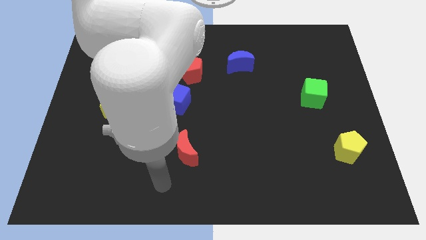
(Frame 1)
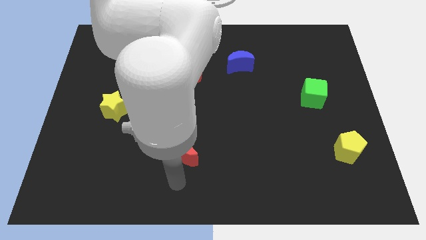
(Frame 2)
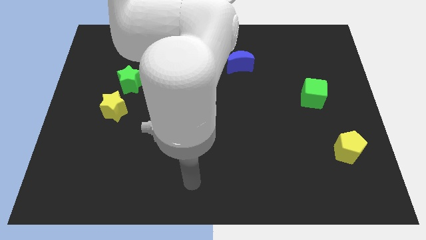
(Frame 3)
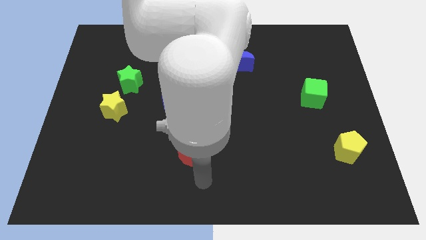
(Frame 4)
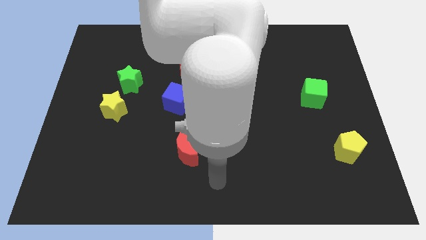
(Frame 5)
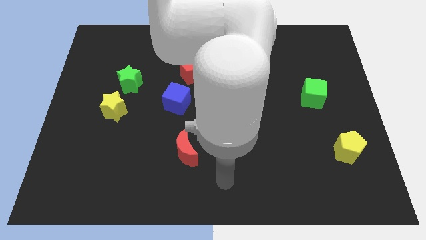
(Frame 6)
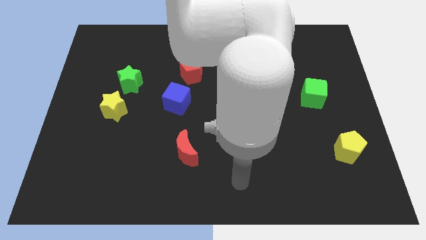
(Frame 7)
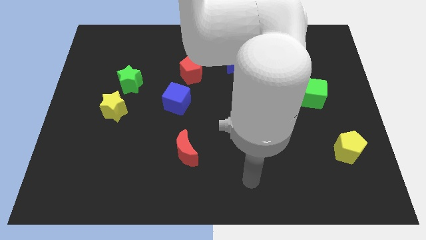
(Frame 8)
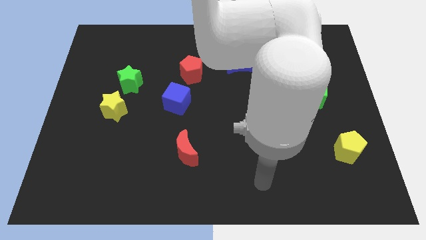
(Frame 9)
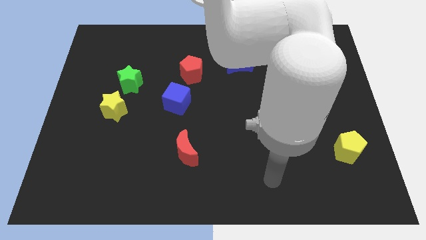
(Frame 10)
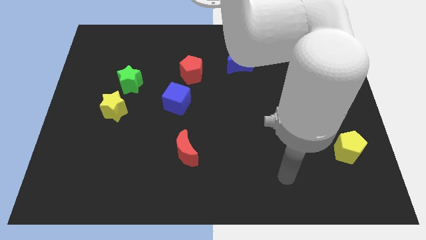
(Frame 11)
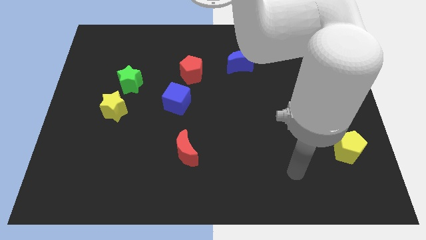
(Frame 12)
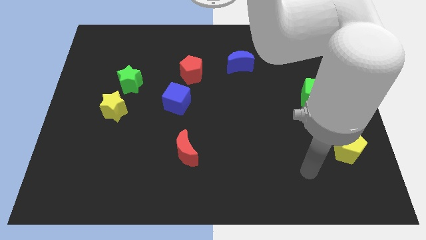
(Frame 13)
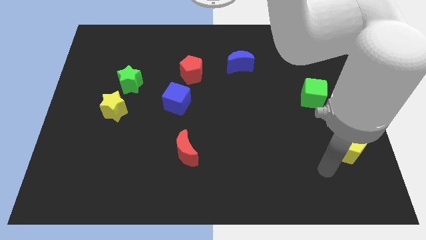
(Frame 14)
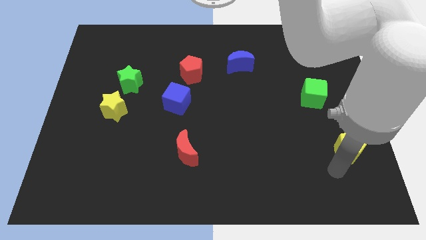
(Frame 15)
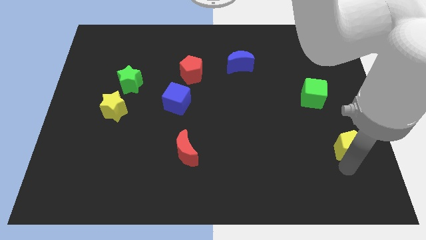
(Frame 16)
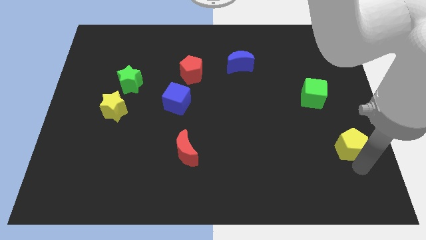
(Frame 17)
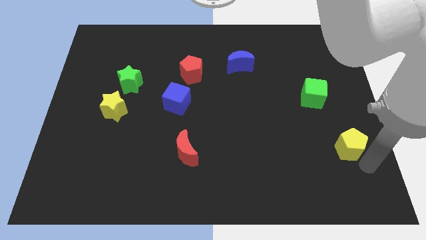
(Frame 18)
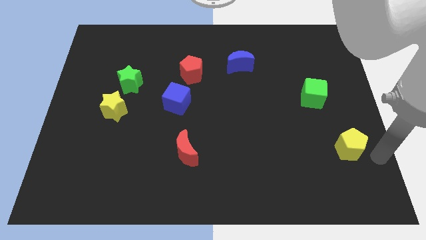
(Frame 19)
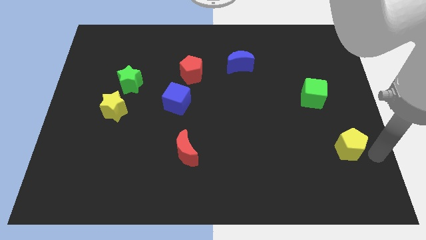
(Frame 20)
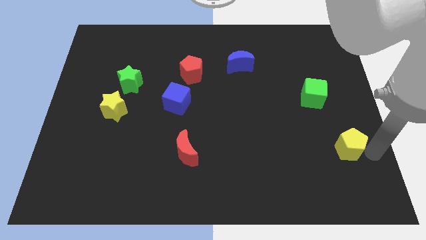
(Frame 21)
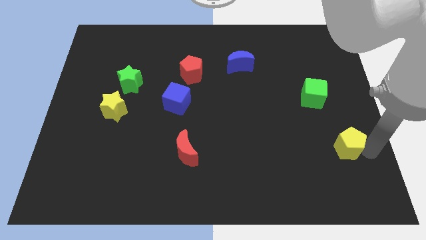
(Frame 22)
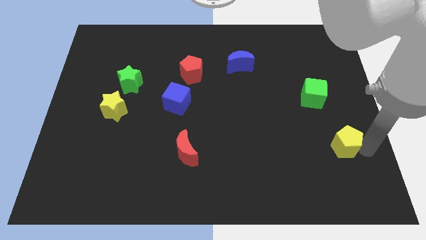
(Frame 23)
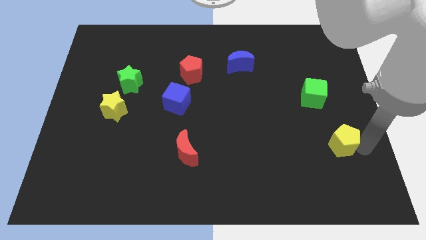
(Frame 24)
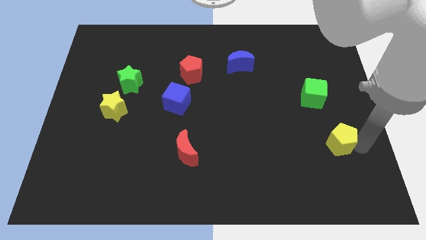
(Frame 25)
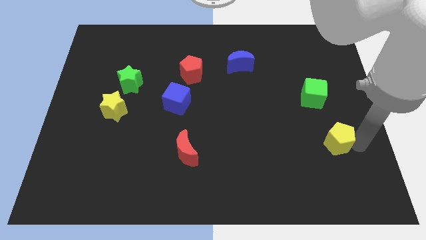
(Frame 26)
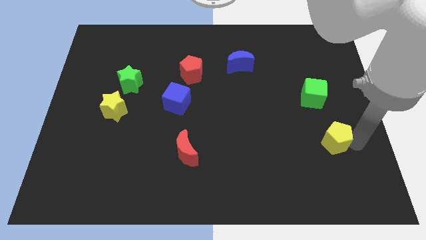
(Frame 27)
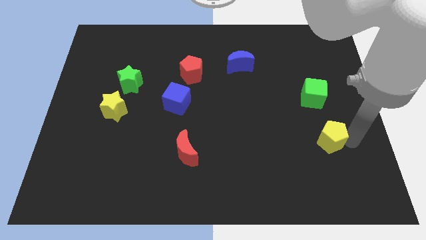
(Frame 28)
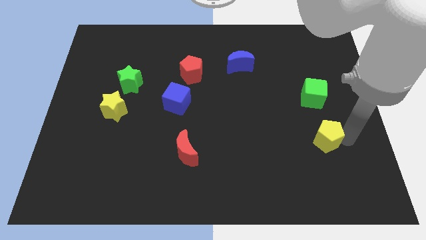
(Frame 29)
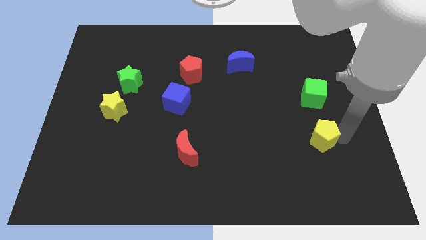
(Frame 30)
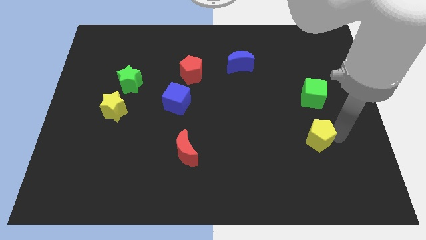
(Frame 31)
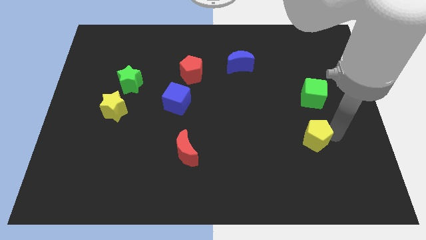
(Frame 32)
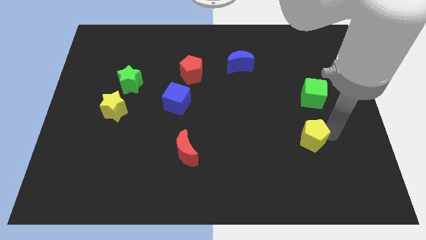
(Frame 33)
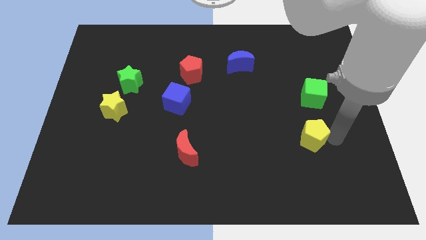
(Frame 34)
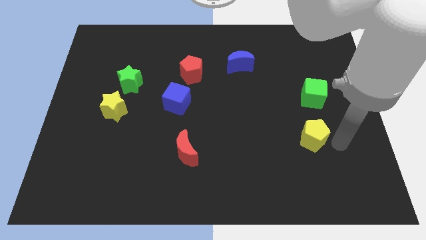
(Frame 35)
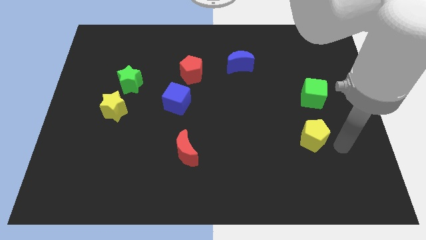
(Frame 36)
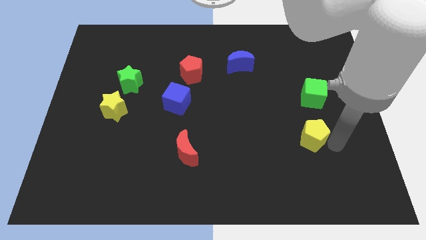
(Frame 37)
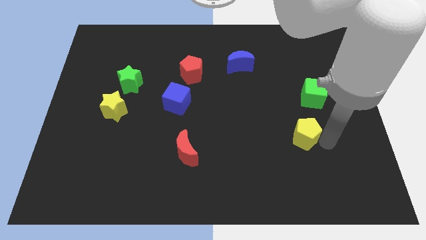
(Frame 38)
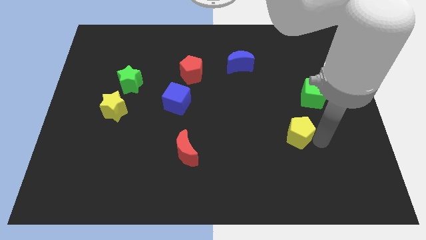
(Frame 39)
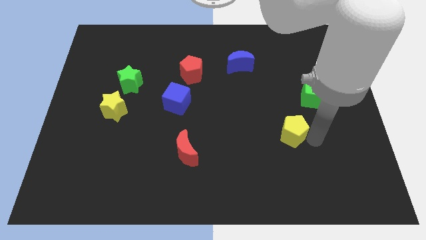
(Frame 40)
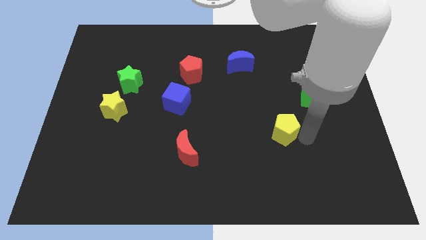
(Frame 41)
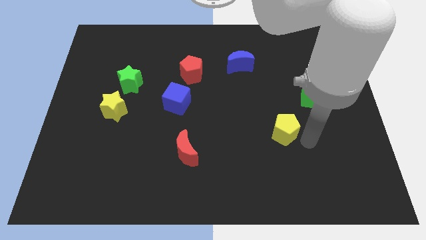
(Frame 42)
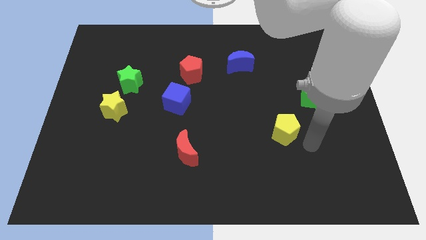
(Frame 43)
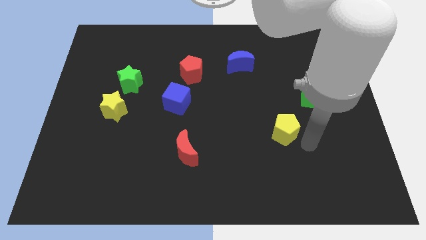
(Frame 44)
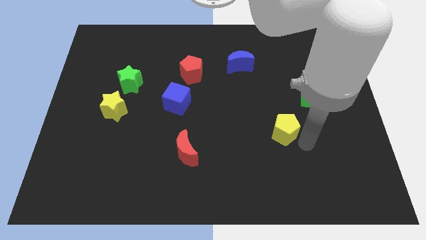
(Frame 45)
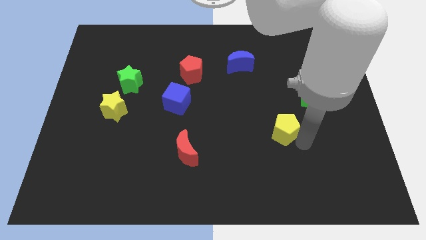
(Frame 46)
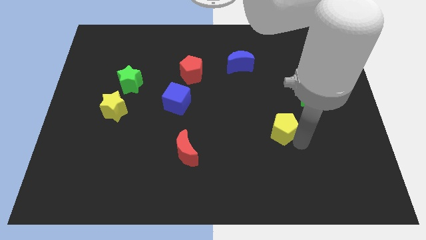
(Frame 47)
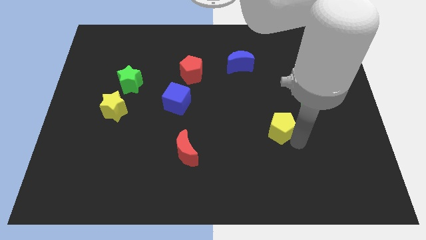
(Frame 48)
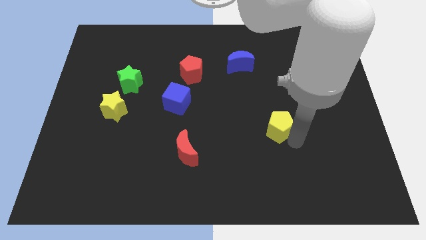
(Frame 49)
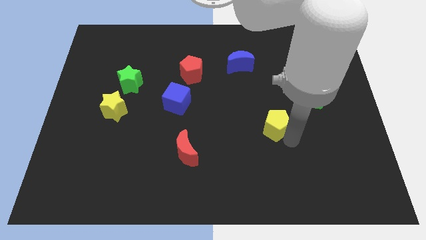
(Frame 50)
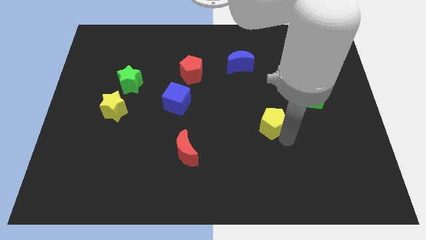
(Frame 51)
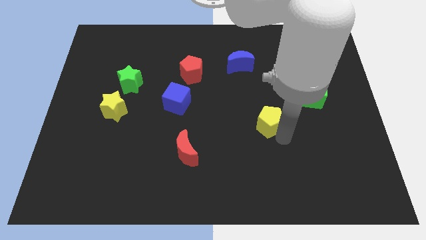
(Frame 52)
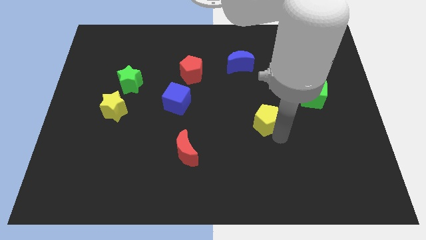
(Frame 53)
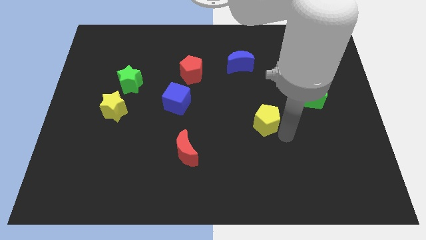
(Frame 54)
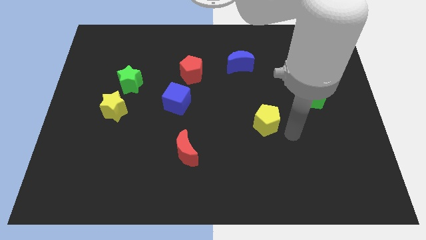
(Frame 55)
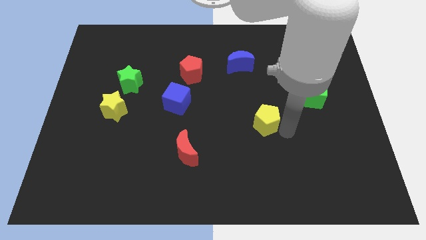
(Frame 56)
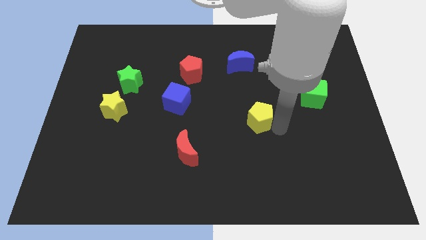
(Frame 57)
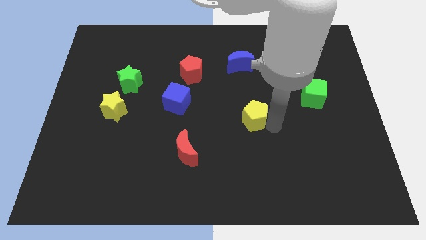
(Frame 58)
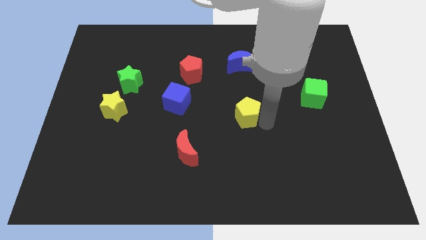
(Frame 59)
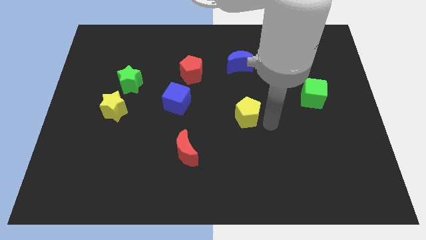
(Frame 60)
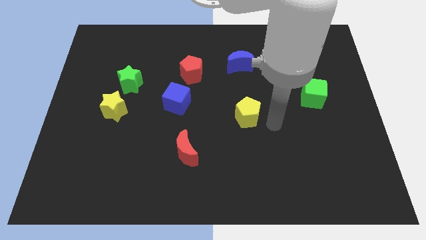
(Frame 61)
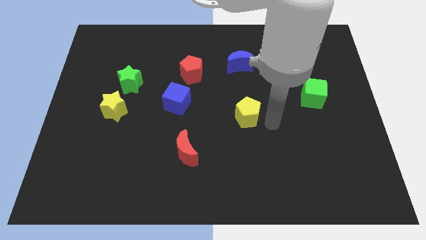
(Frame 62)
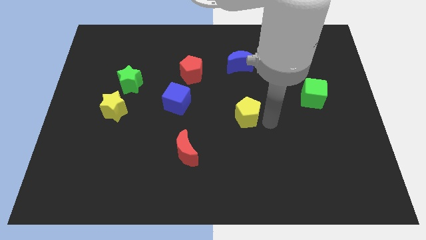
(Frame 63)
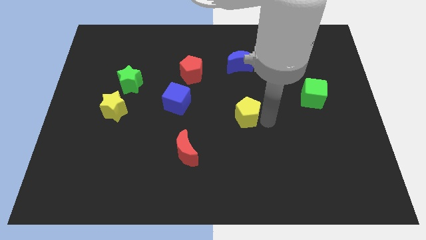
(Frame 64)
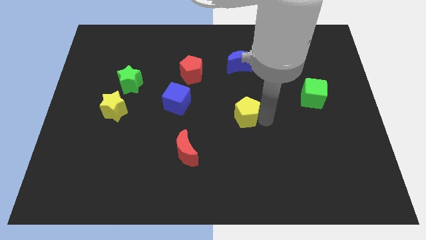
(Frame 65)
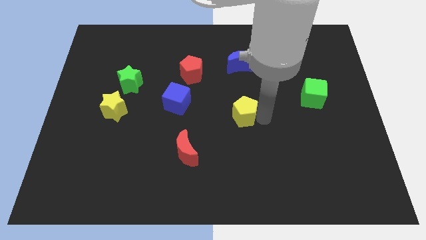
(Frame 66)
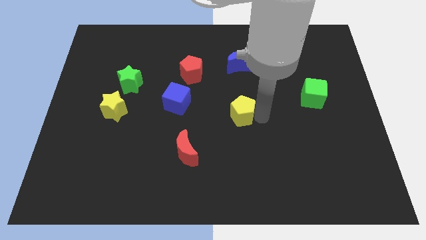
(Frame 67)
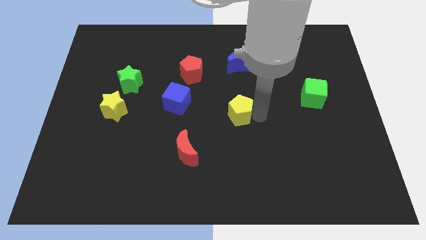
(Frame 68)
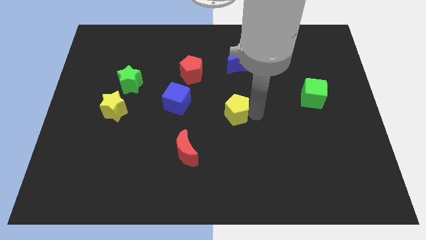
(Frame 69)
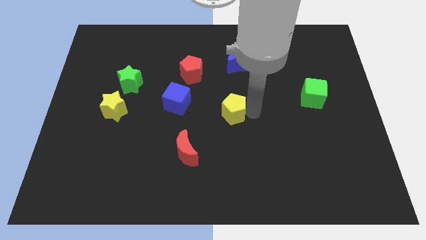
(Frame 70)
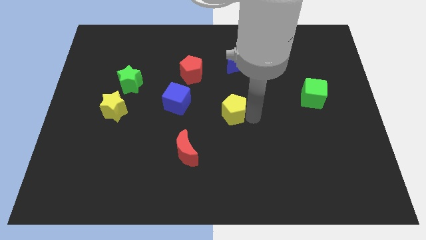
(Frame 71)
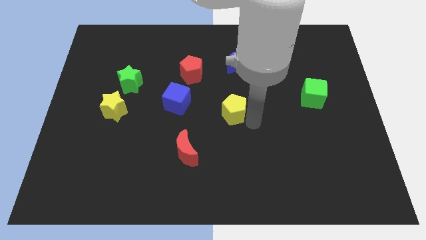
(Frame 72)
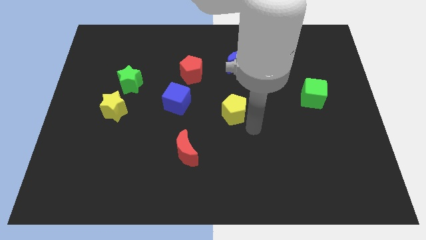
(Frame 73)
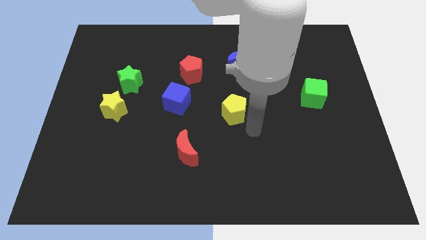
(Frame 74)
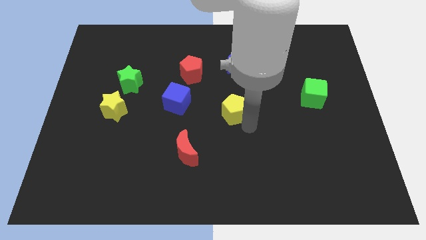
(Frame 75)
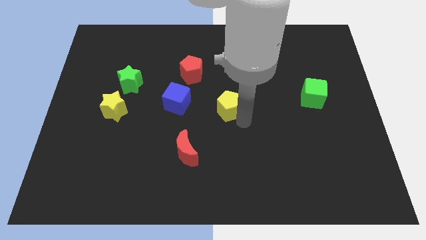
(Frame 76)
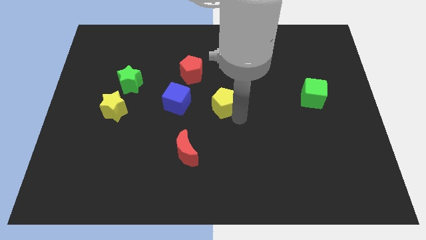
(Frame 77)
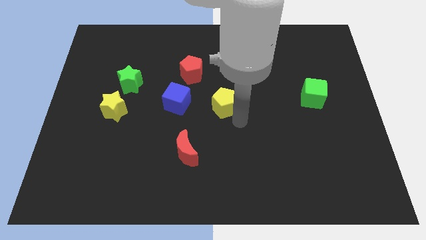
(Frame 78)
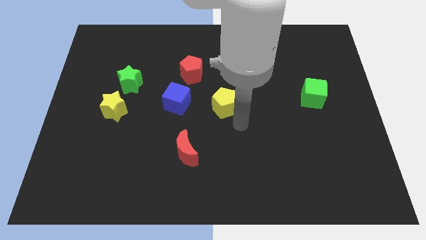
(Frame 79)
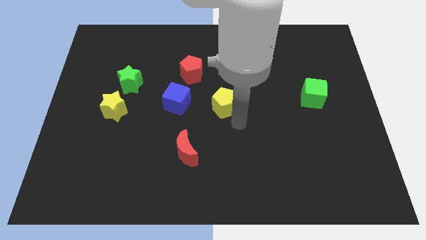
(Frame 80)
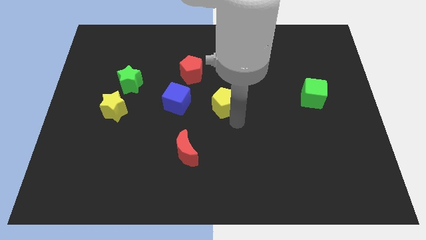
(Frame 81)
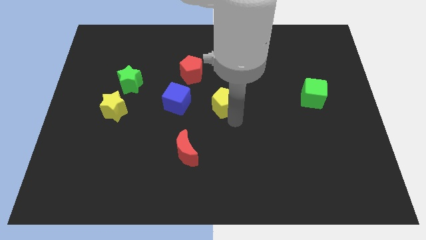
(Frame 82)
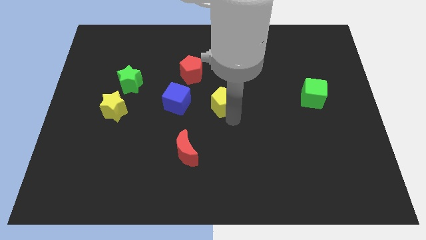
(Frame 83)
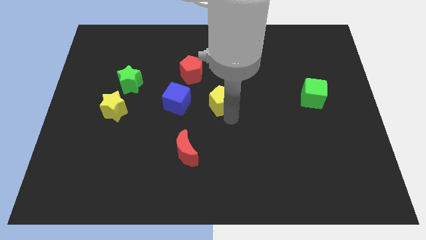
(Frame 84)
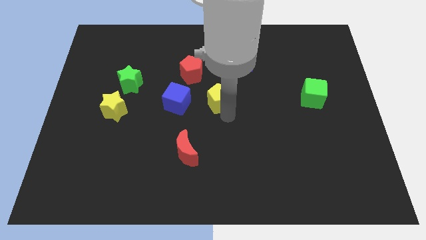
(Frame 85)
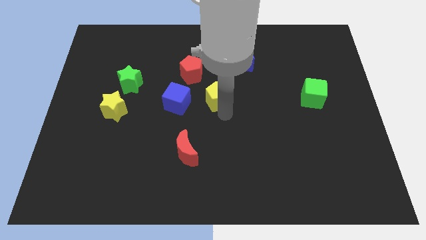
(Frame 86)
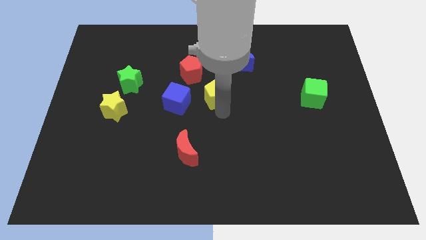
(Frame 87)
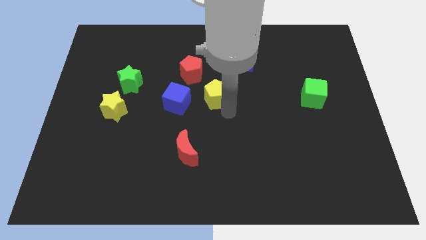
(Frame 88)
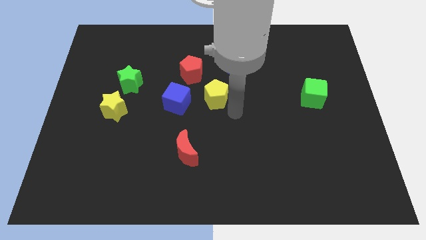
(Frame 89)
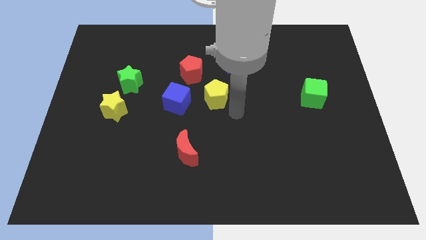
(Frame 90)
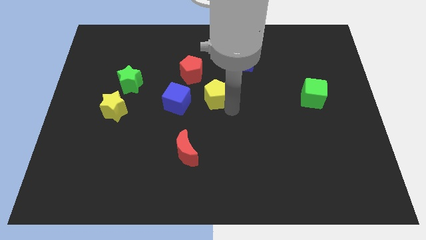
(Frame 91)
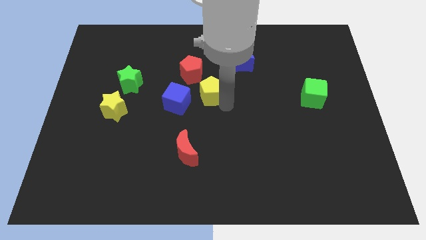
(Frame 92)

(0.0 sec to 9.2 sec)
push the yellow pentagon diagonally up and to the right of the blue cube
